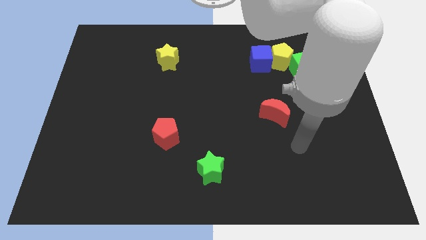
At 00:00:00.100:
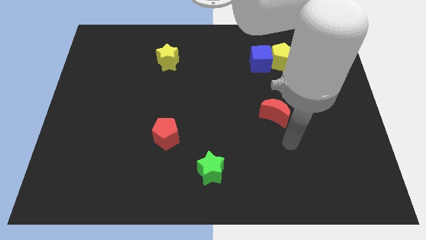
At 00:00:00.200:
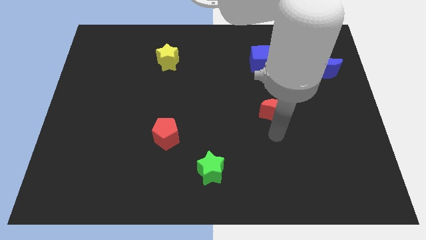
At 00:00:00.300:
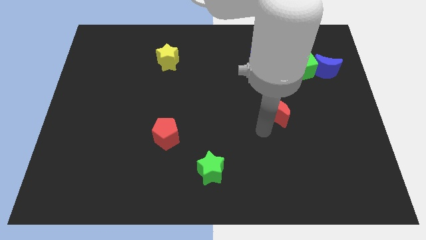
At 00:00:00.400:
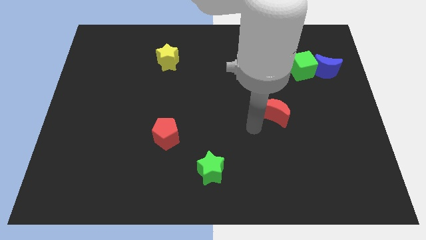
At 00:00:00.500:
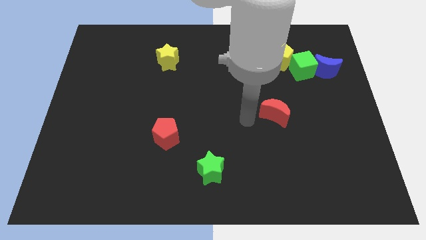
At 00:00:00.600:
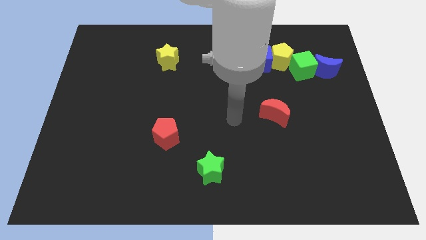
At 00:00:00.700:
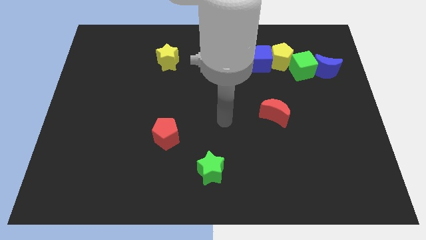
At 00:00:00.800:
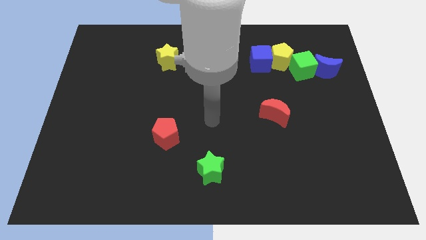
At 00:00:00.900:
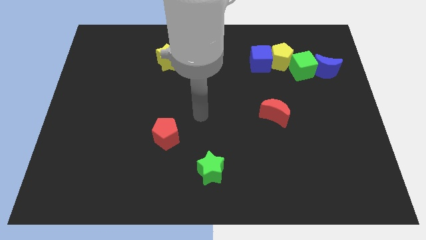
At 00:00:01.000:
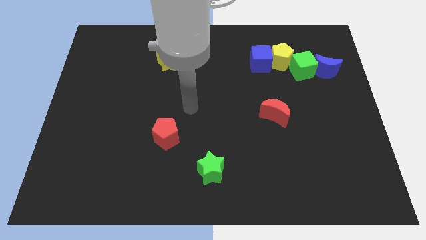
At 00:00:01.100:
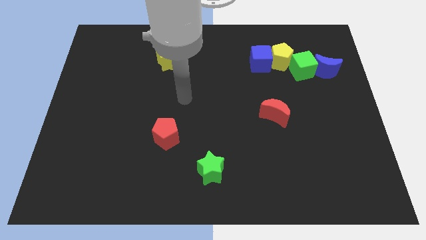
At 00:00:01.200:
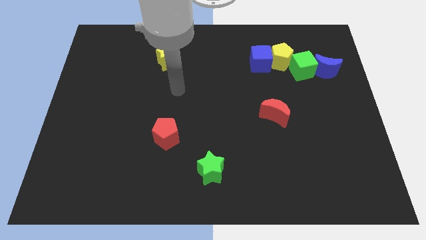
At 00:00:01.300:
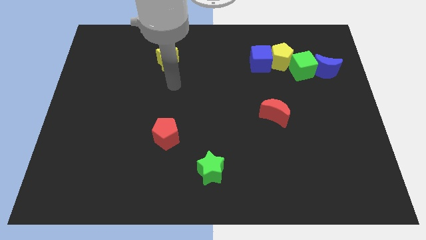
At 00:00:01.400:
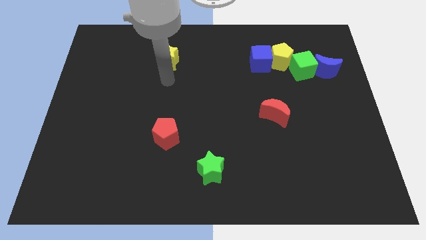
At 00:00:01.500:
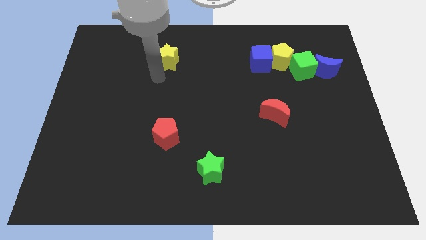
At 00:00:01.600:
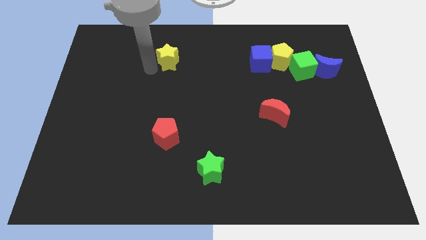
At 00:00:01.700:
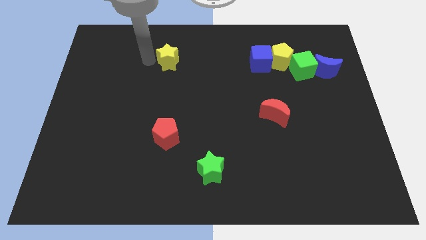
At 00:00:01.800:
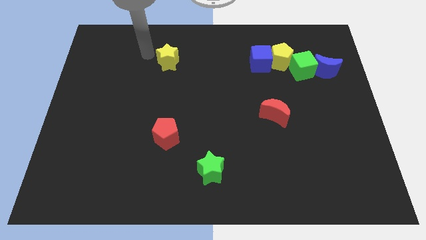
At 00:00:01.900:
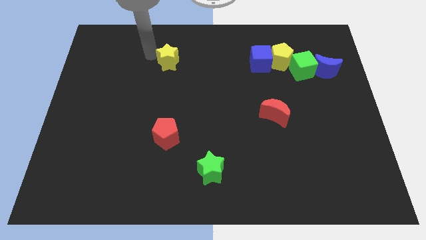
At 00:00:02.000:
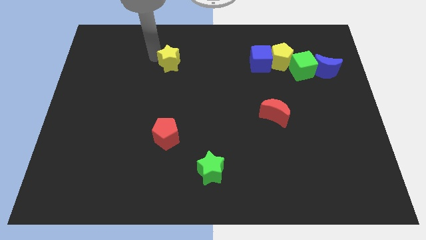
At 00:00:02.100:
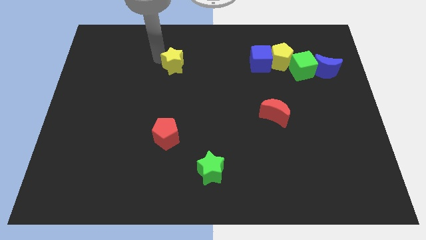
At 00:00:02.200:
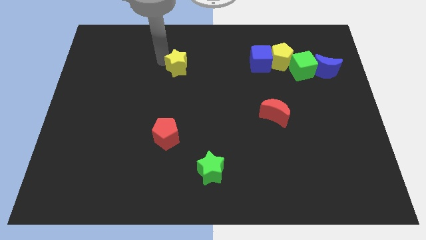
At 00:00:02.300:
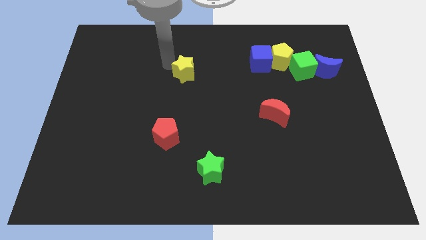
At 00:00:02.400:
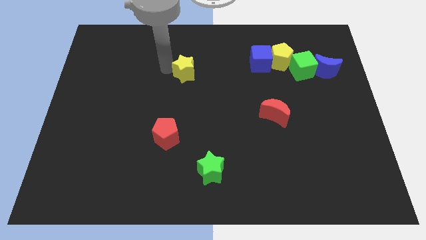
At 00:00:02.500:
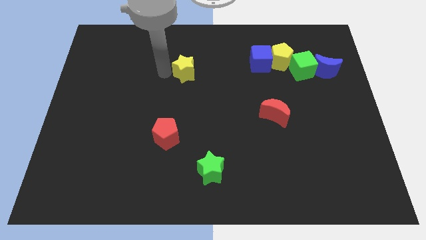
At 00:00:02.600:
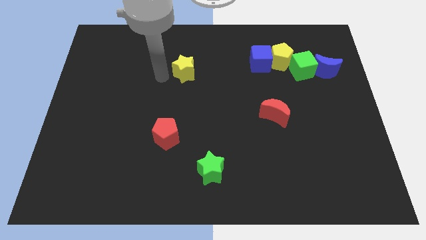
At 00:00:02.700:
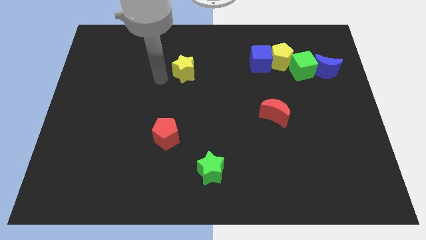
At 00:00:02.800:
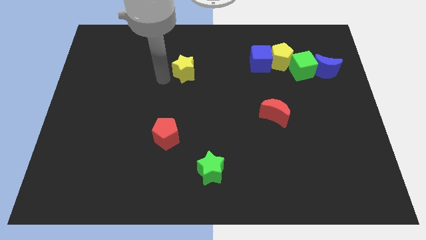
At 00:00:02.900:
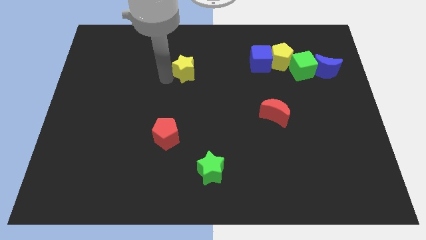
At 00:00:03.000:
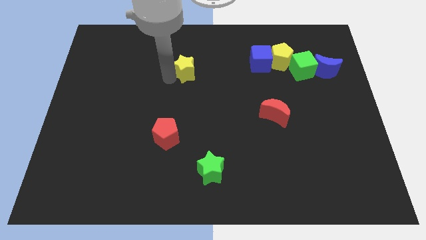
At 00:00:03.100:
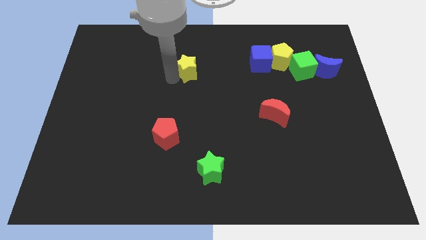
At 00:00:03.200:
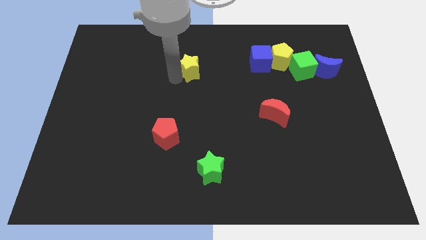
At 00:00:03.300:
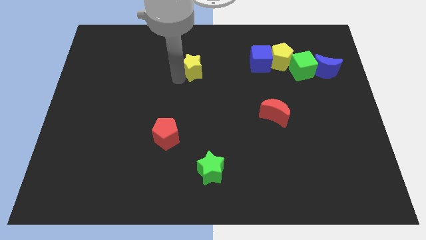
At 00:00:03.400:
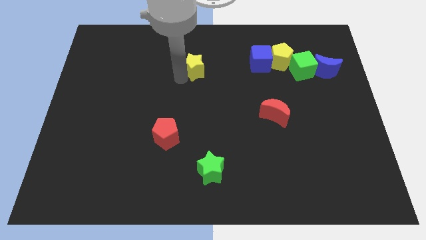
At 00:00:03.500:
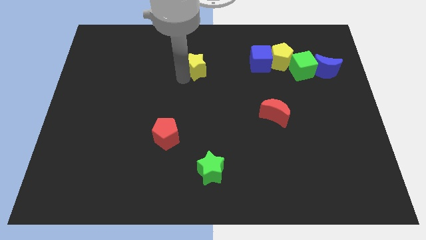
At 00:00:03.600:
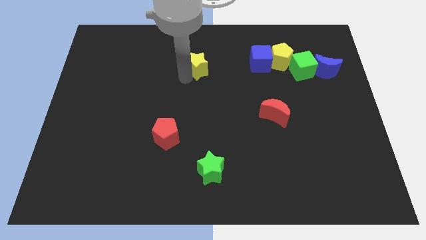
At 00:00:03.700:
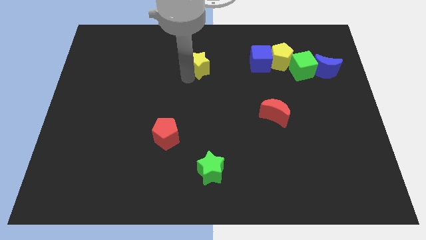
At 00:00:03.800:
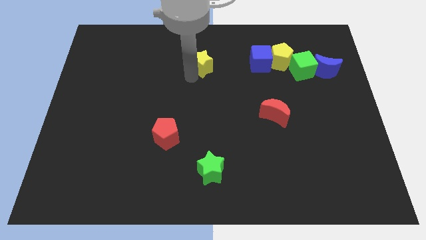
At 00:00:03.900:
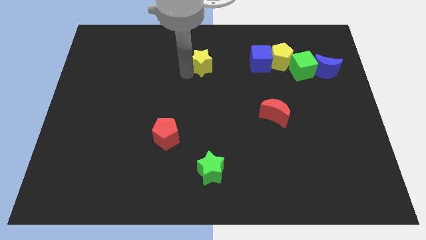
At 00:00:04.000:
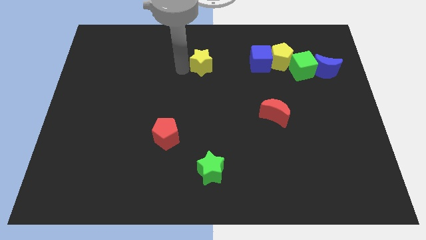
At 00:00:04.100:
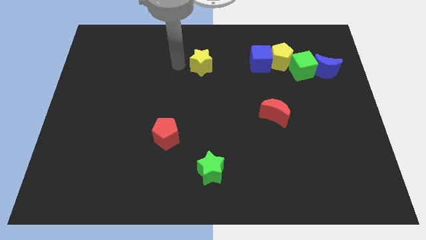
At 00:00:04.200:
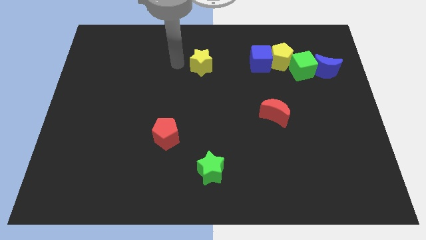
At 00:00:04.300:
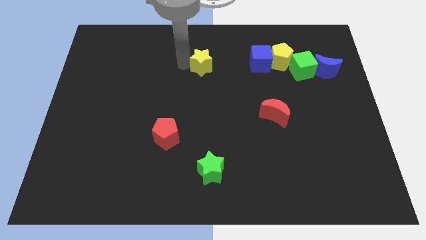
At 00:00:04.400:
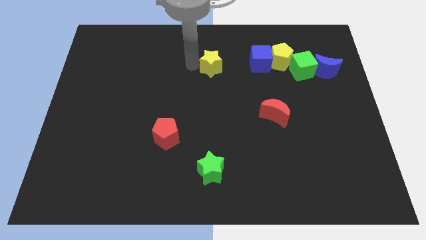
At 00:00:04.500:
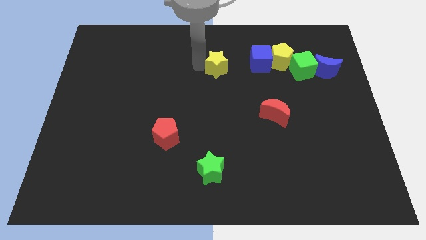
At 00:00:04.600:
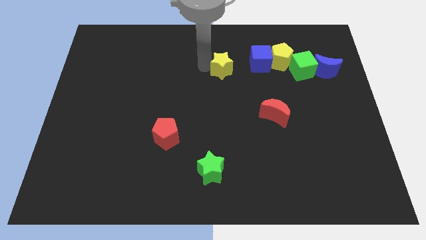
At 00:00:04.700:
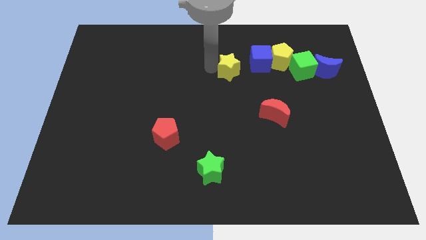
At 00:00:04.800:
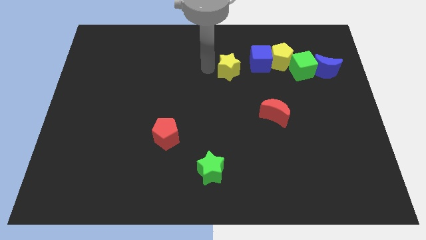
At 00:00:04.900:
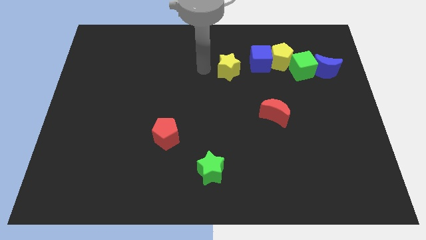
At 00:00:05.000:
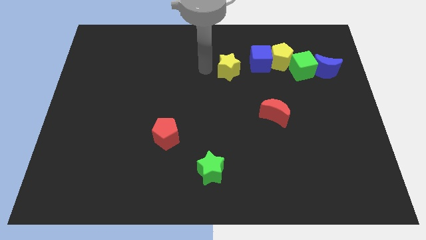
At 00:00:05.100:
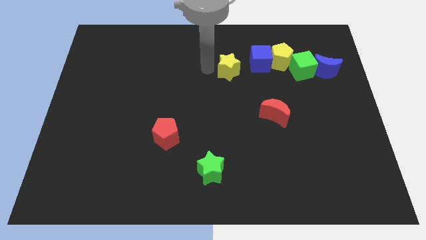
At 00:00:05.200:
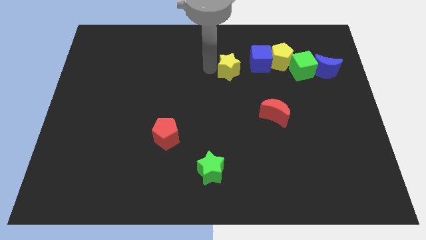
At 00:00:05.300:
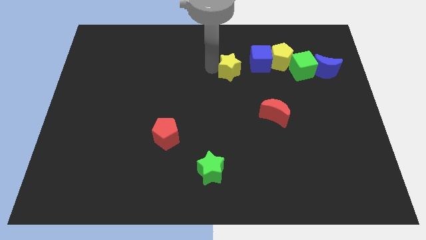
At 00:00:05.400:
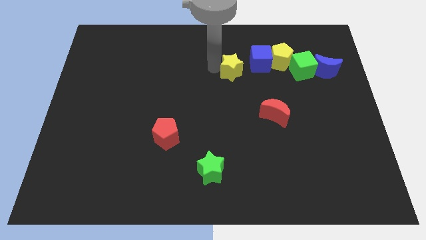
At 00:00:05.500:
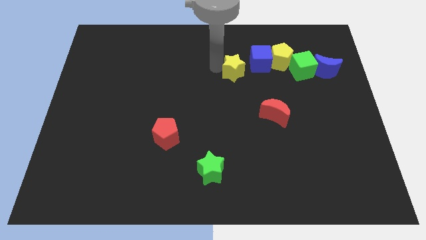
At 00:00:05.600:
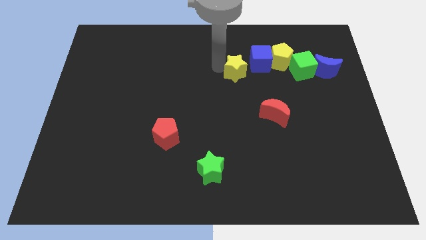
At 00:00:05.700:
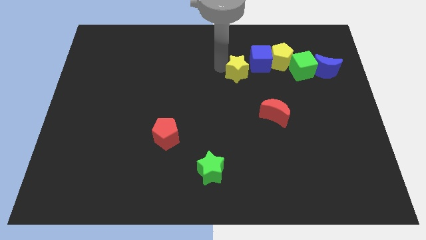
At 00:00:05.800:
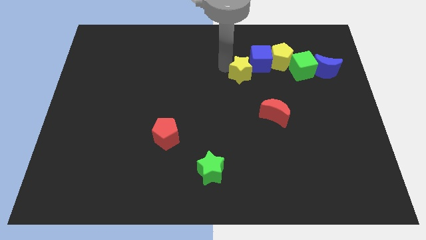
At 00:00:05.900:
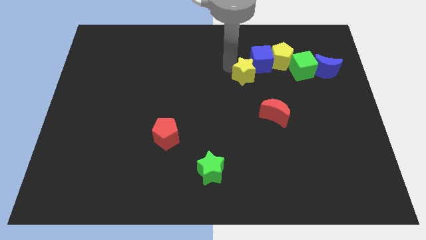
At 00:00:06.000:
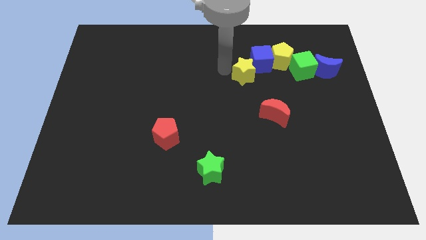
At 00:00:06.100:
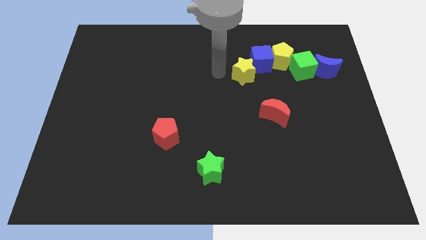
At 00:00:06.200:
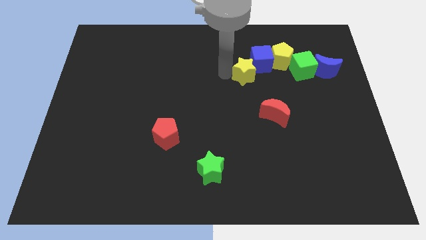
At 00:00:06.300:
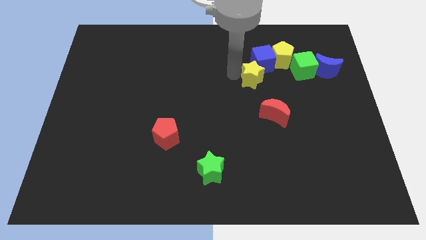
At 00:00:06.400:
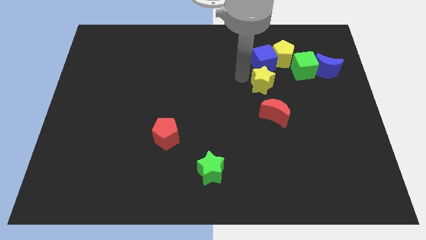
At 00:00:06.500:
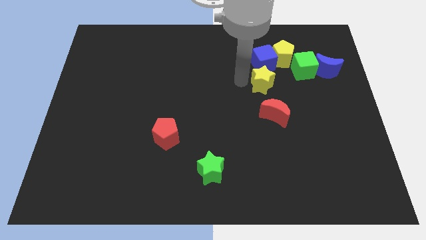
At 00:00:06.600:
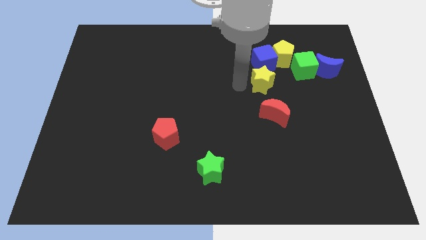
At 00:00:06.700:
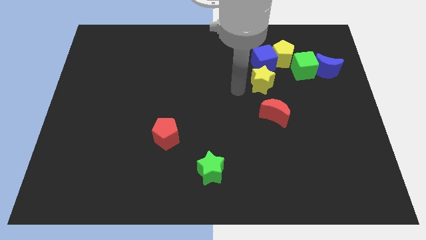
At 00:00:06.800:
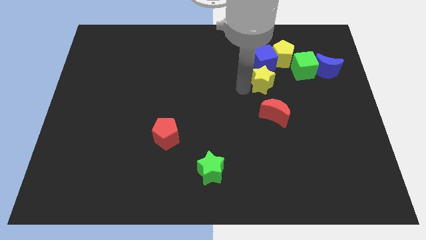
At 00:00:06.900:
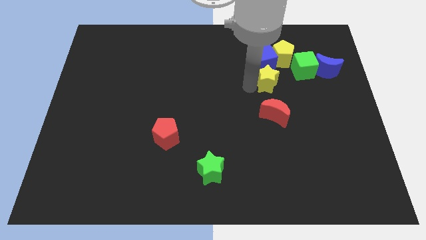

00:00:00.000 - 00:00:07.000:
push the yellow star to the bottom right of the blue cube
